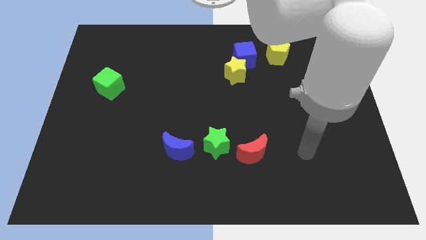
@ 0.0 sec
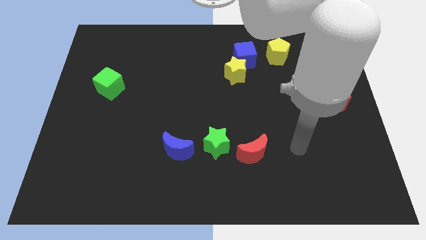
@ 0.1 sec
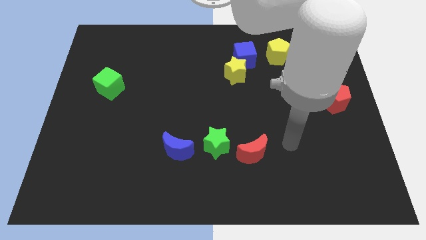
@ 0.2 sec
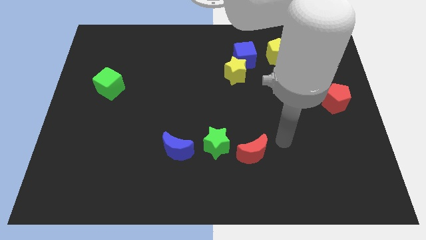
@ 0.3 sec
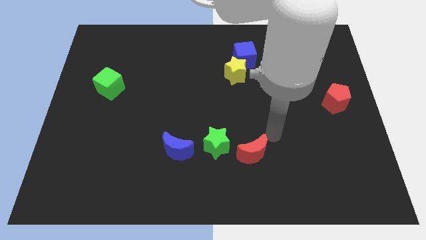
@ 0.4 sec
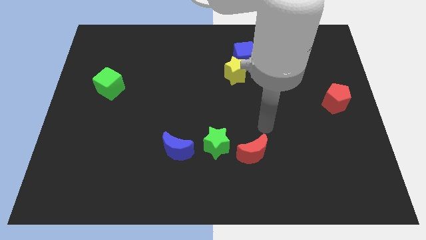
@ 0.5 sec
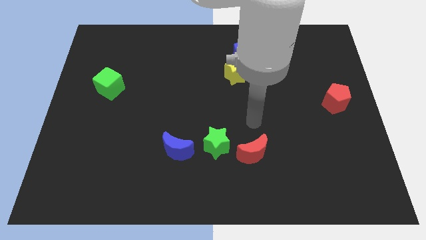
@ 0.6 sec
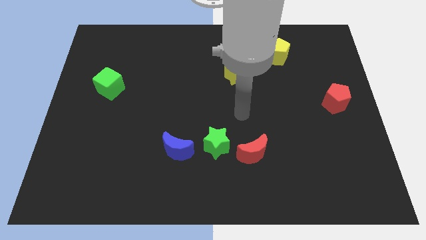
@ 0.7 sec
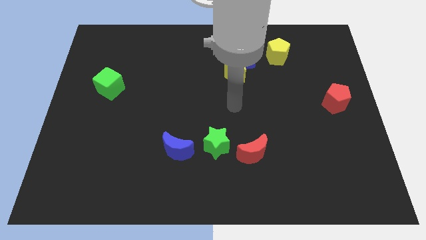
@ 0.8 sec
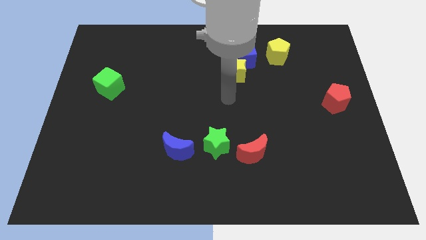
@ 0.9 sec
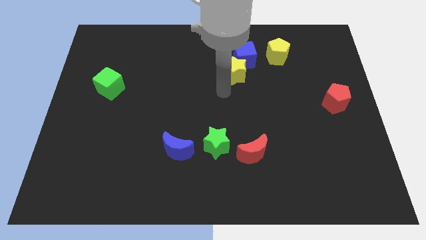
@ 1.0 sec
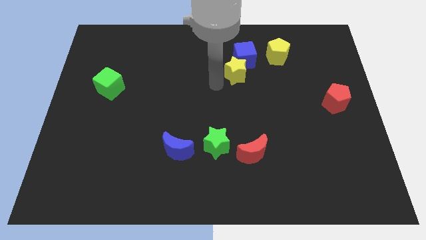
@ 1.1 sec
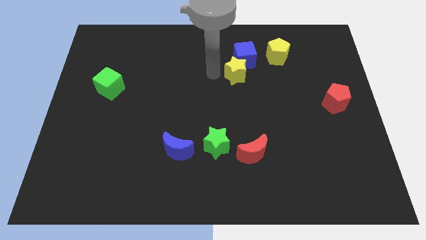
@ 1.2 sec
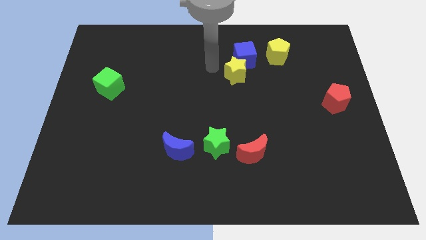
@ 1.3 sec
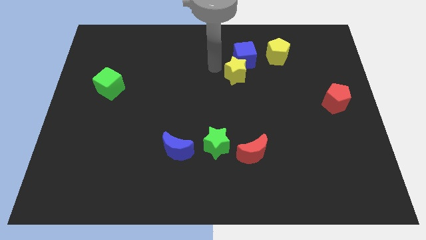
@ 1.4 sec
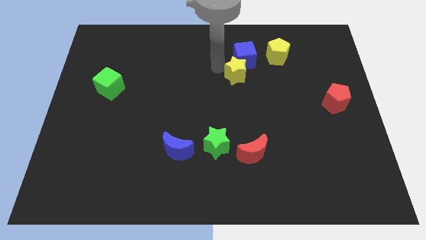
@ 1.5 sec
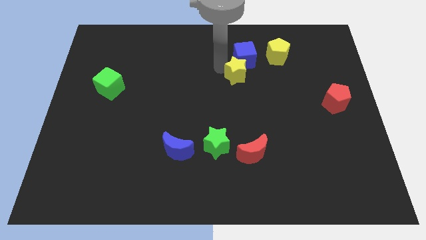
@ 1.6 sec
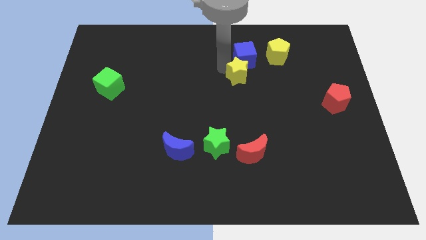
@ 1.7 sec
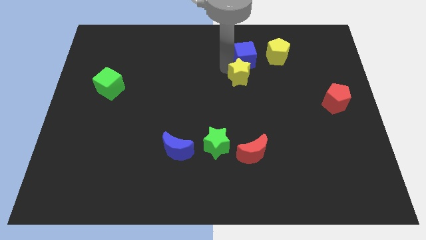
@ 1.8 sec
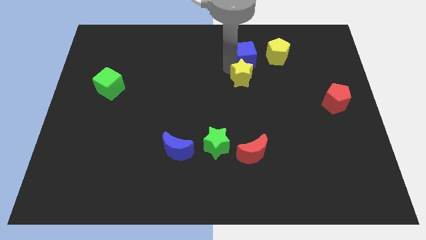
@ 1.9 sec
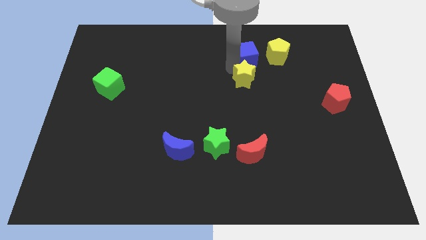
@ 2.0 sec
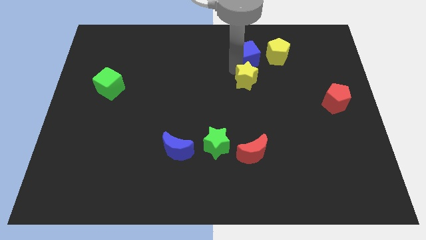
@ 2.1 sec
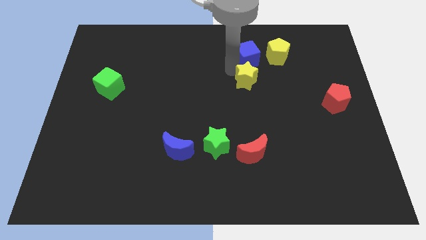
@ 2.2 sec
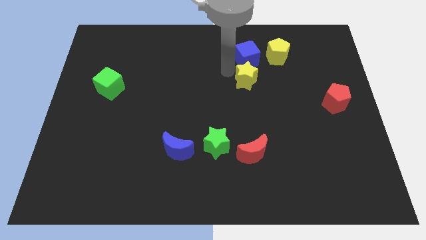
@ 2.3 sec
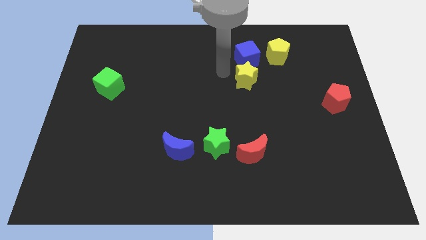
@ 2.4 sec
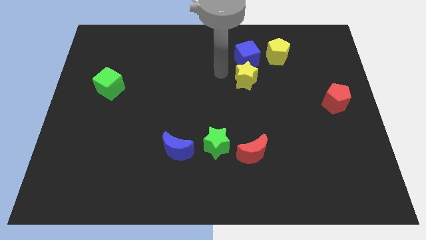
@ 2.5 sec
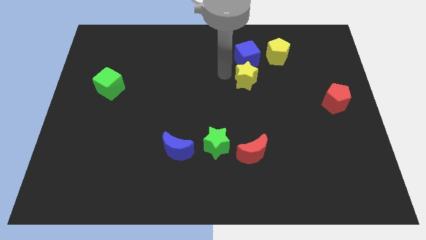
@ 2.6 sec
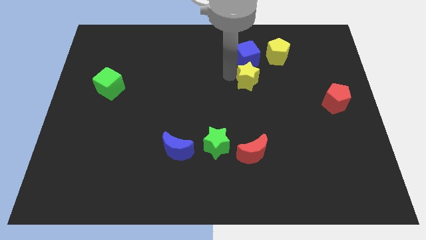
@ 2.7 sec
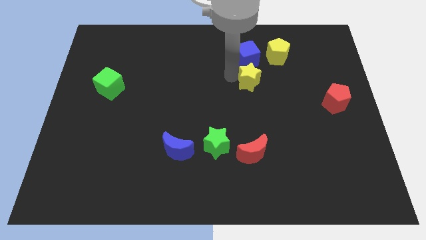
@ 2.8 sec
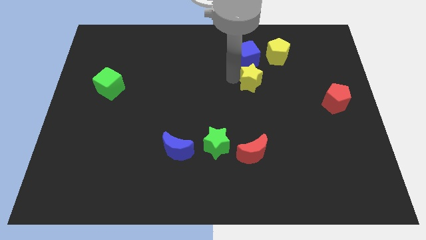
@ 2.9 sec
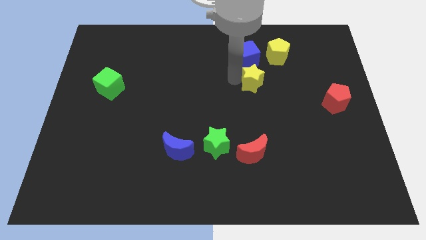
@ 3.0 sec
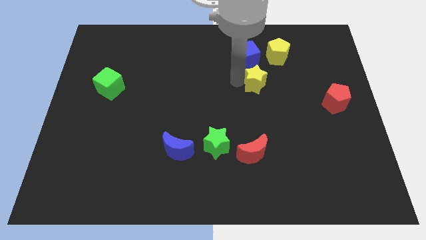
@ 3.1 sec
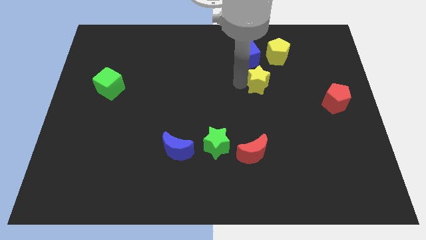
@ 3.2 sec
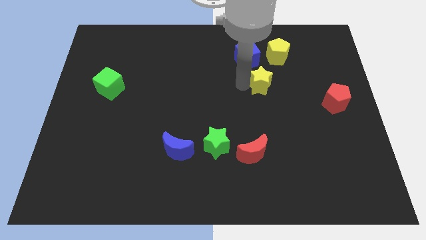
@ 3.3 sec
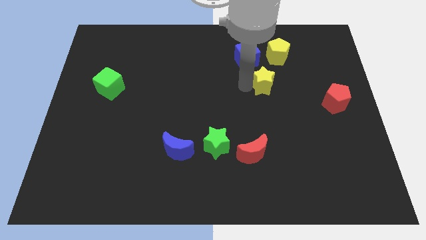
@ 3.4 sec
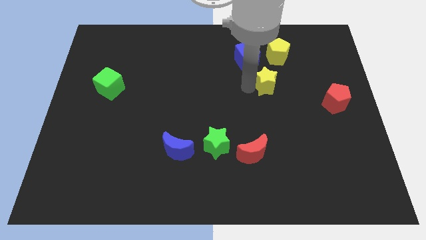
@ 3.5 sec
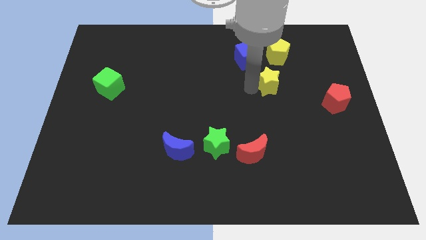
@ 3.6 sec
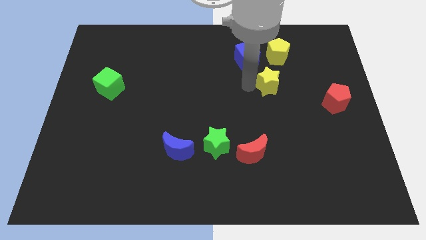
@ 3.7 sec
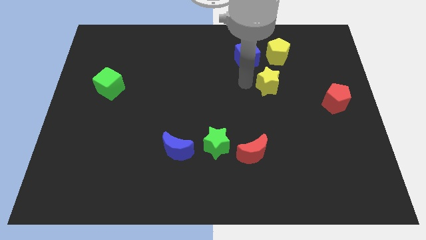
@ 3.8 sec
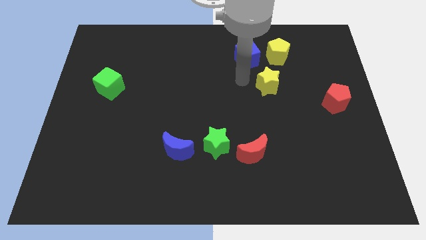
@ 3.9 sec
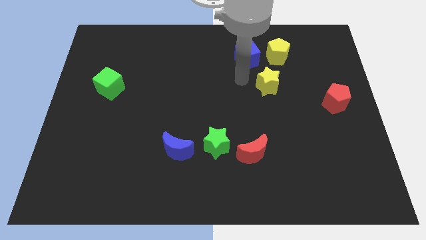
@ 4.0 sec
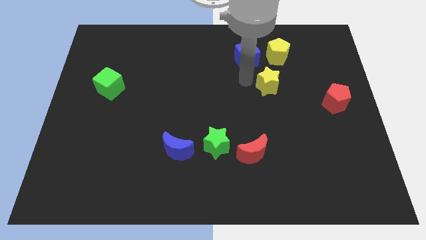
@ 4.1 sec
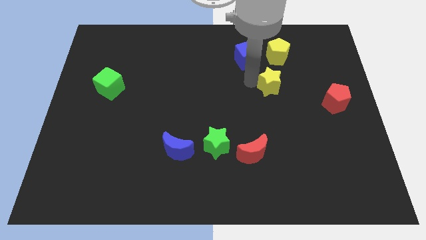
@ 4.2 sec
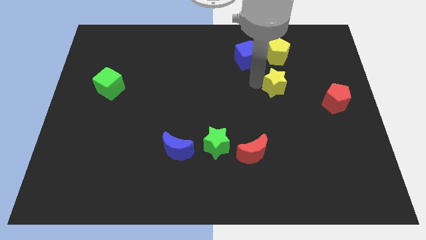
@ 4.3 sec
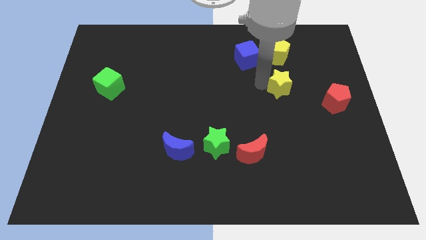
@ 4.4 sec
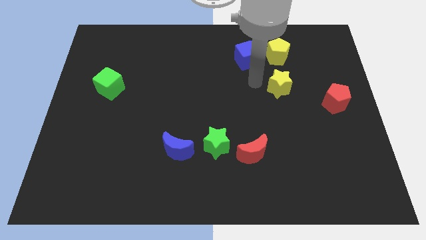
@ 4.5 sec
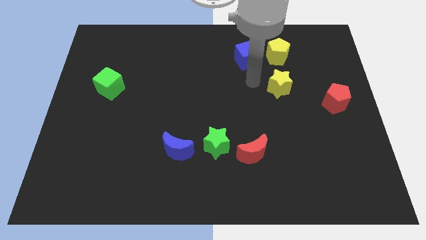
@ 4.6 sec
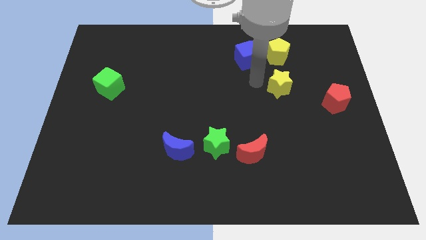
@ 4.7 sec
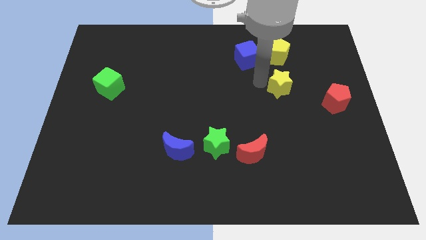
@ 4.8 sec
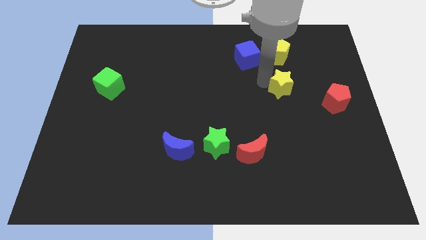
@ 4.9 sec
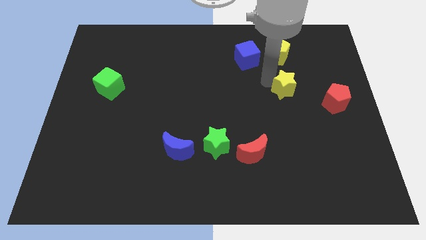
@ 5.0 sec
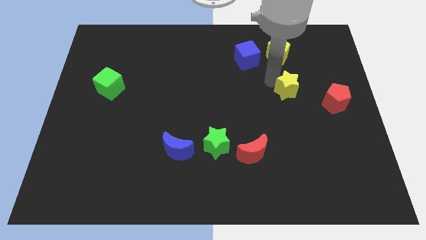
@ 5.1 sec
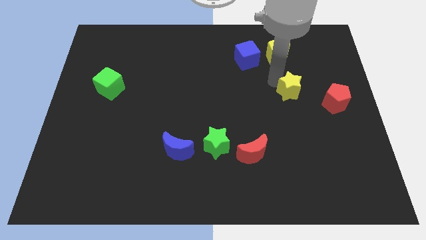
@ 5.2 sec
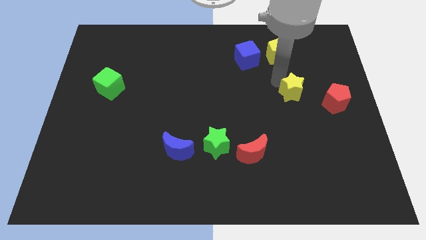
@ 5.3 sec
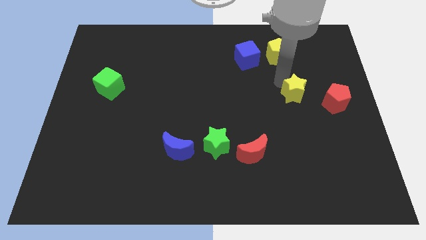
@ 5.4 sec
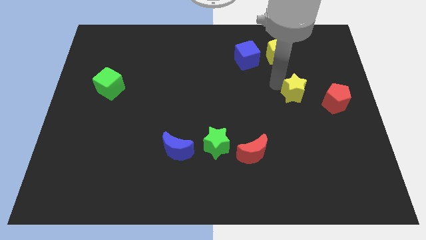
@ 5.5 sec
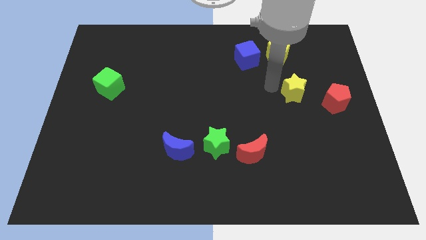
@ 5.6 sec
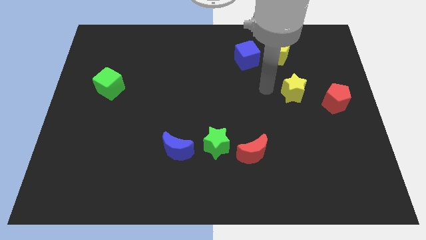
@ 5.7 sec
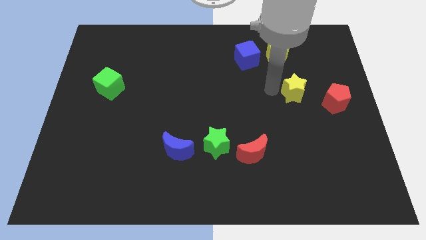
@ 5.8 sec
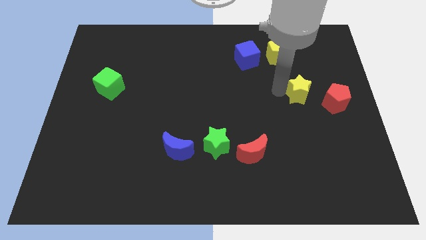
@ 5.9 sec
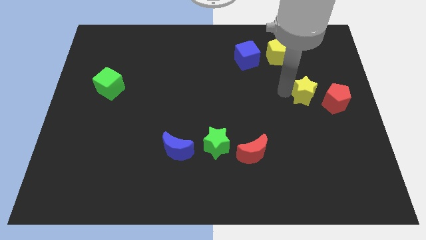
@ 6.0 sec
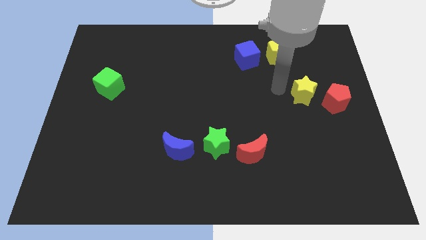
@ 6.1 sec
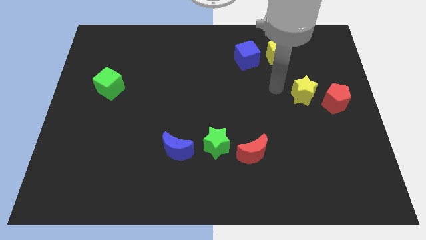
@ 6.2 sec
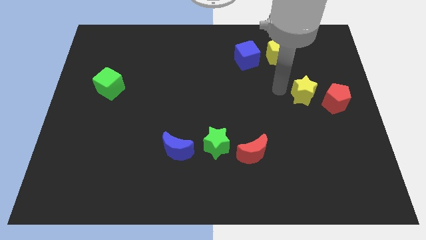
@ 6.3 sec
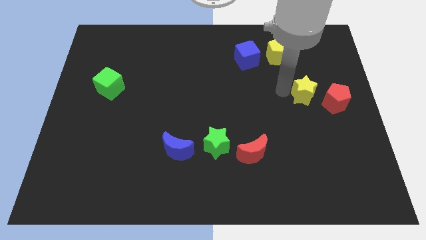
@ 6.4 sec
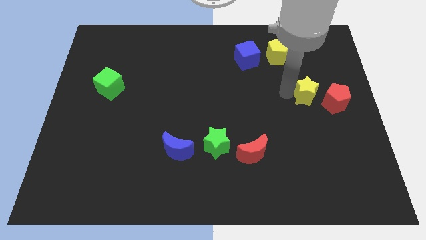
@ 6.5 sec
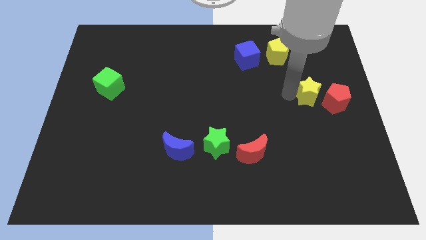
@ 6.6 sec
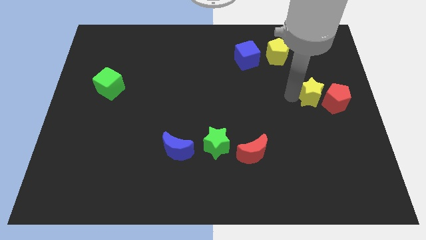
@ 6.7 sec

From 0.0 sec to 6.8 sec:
put the yellow star to the red pentagon

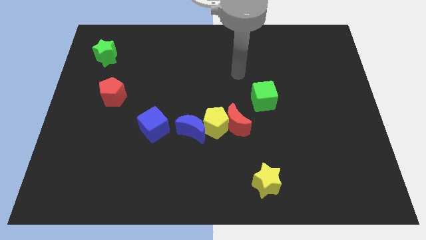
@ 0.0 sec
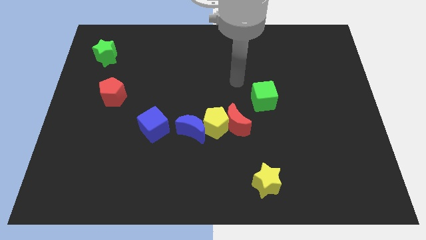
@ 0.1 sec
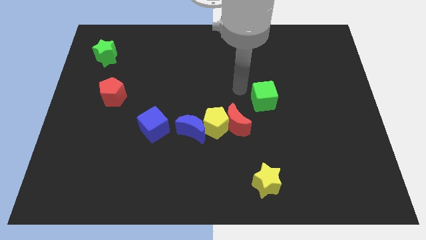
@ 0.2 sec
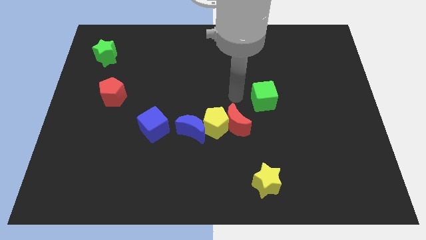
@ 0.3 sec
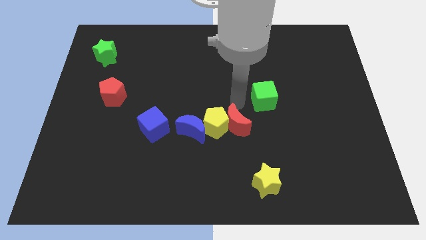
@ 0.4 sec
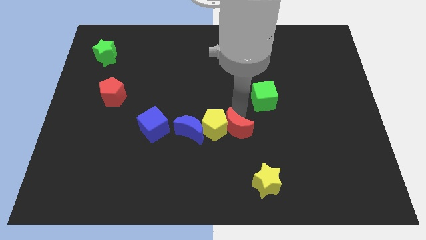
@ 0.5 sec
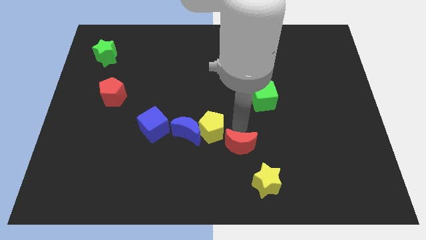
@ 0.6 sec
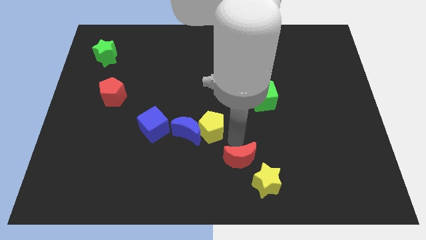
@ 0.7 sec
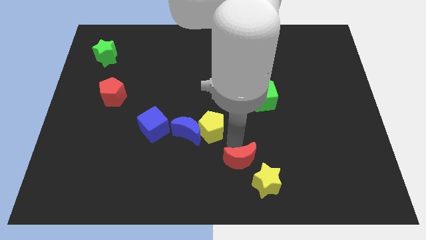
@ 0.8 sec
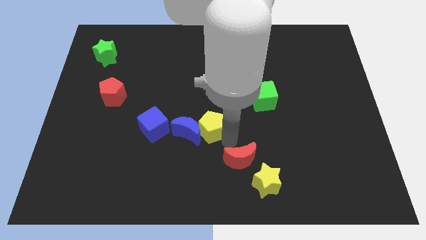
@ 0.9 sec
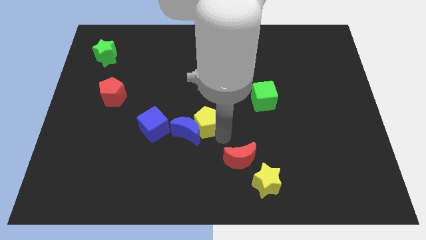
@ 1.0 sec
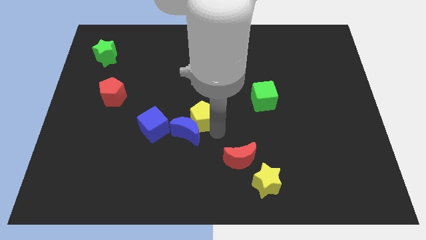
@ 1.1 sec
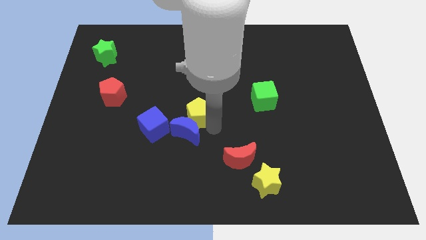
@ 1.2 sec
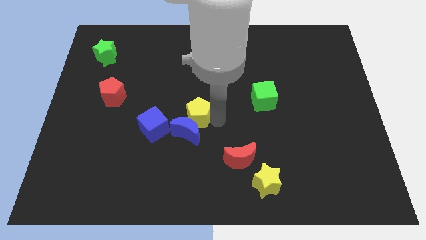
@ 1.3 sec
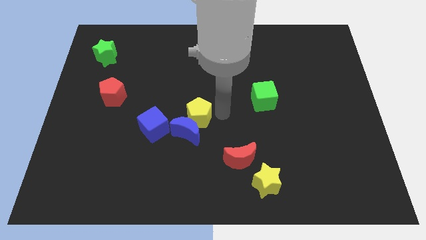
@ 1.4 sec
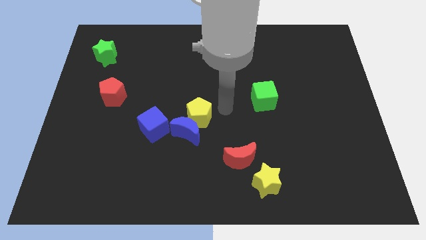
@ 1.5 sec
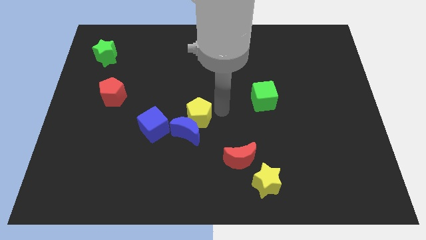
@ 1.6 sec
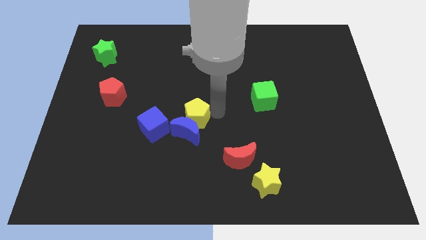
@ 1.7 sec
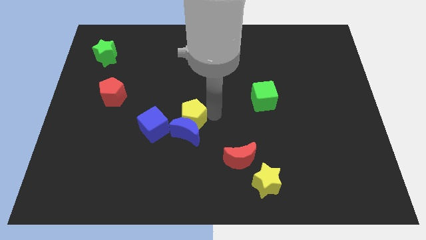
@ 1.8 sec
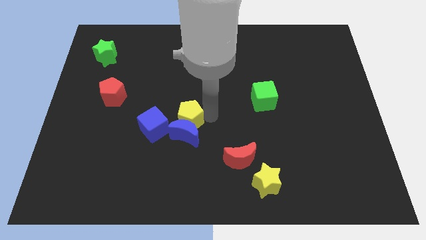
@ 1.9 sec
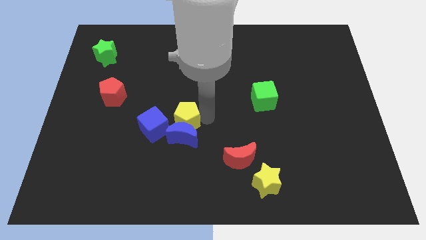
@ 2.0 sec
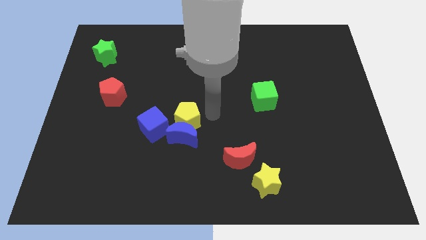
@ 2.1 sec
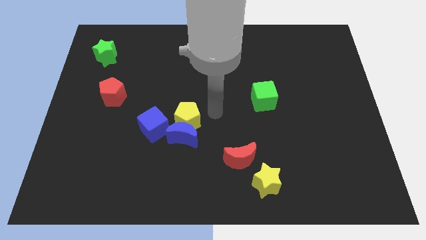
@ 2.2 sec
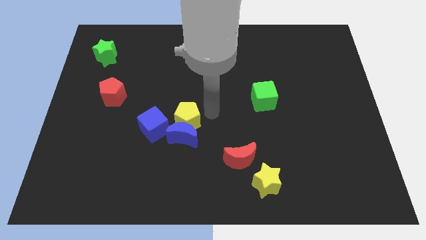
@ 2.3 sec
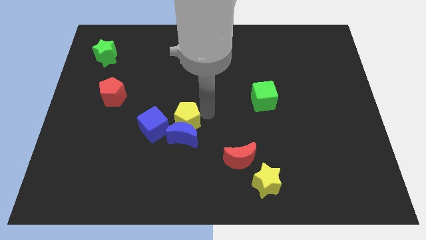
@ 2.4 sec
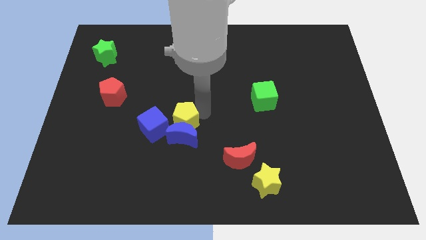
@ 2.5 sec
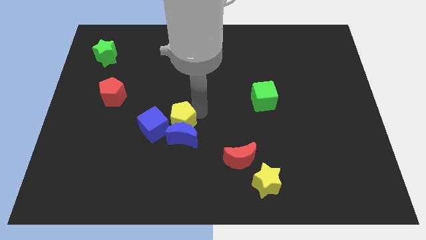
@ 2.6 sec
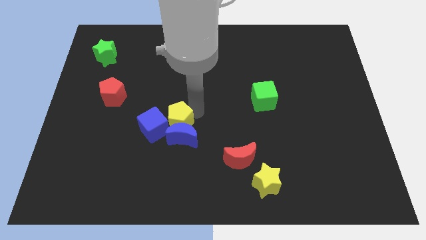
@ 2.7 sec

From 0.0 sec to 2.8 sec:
put the yellow pentagon next to the blue cube
